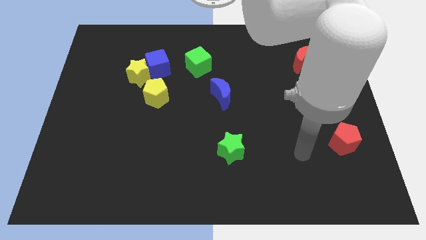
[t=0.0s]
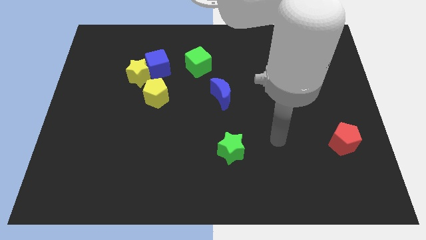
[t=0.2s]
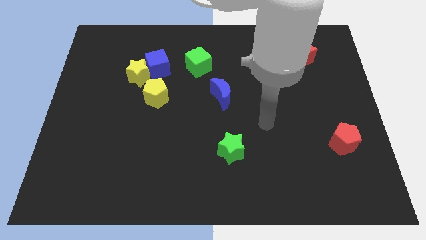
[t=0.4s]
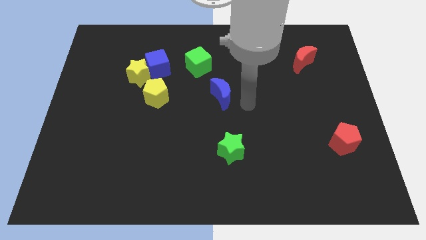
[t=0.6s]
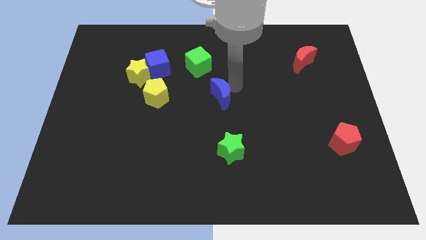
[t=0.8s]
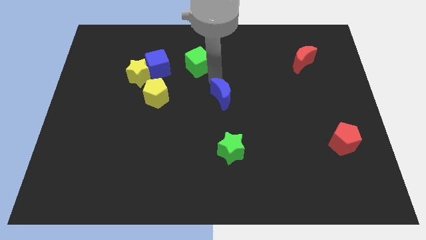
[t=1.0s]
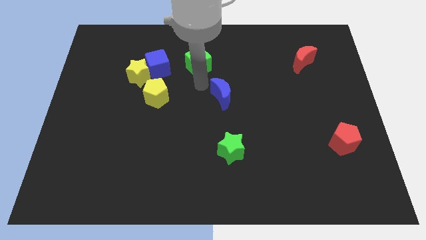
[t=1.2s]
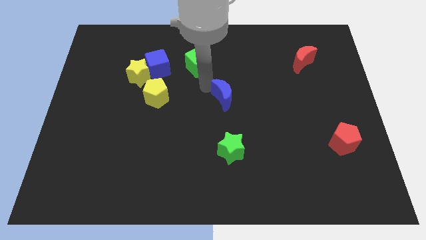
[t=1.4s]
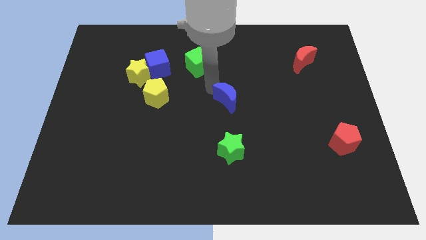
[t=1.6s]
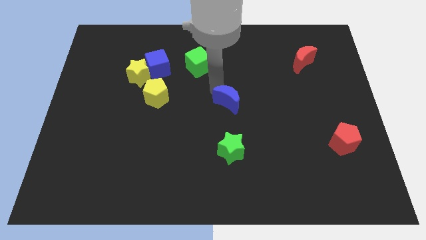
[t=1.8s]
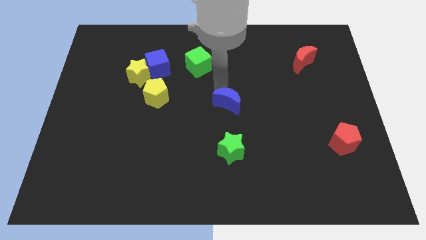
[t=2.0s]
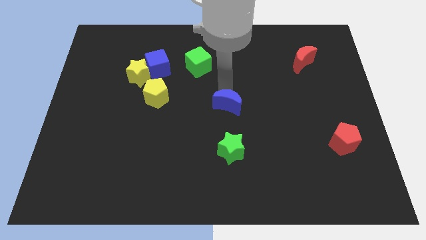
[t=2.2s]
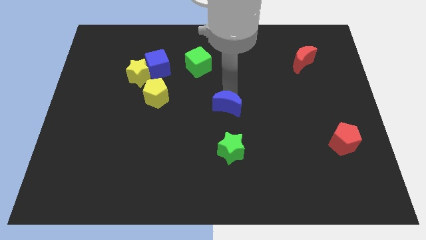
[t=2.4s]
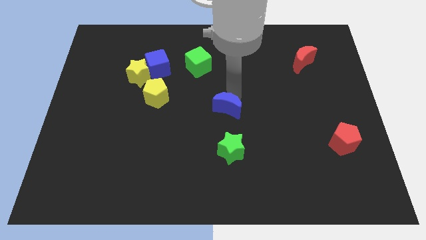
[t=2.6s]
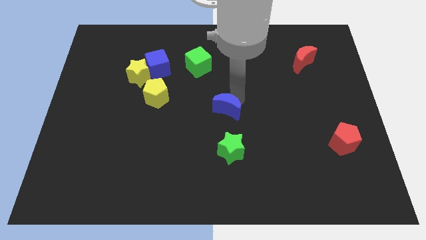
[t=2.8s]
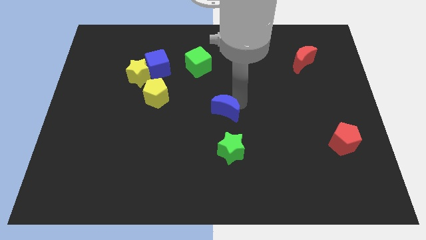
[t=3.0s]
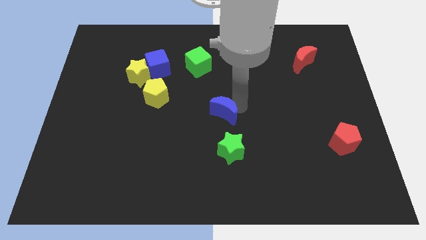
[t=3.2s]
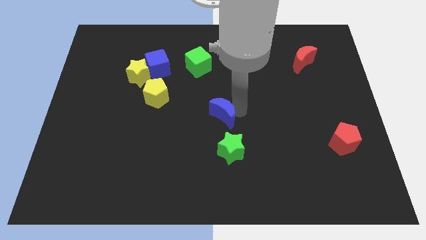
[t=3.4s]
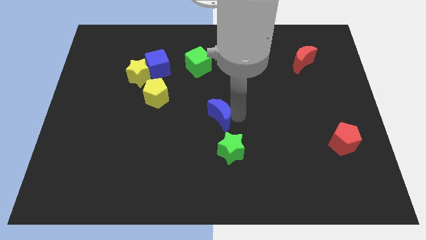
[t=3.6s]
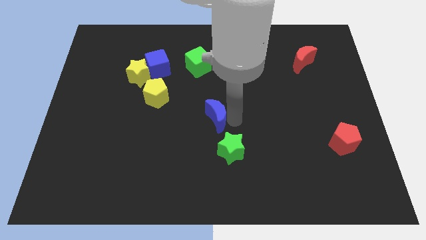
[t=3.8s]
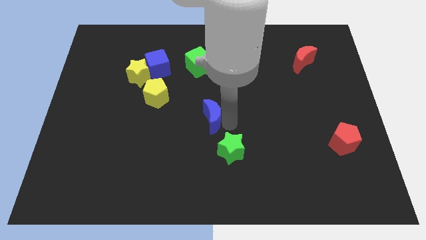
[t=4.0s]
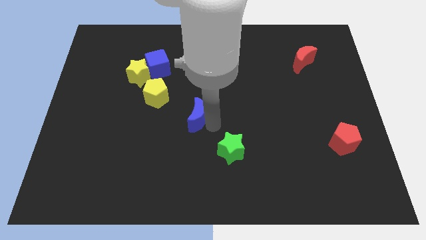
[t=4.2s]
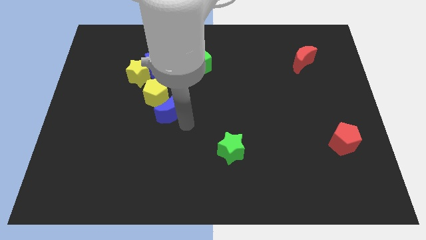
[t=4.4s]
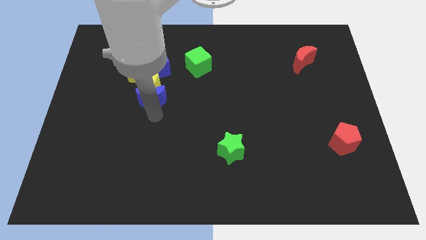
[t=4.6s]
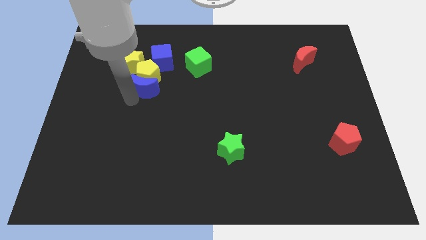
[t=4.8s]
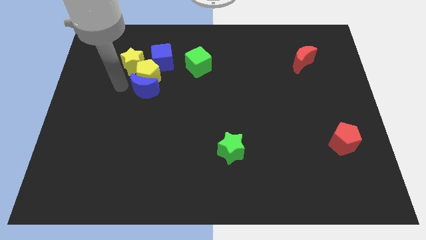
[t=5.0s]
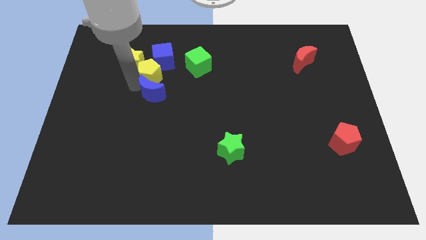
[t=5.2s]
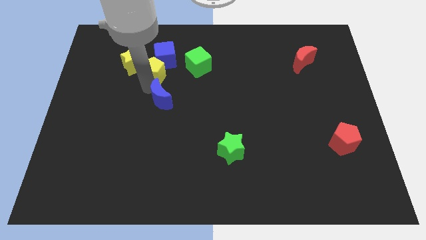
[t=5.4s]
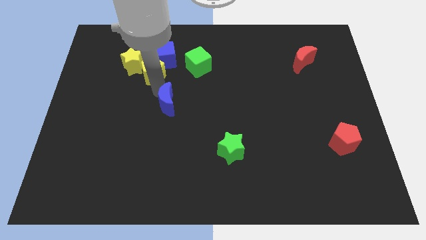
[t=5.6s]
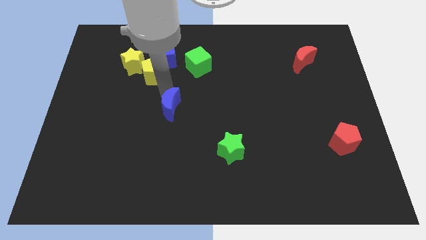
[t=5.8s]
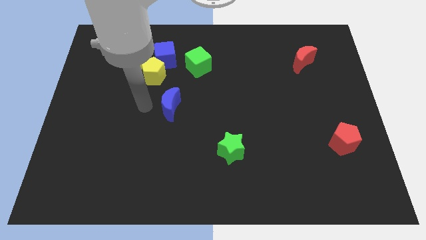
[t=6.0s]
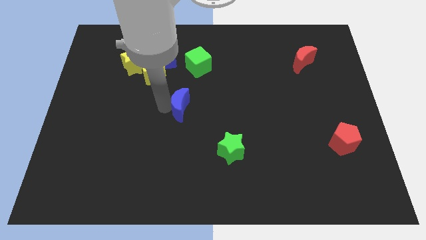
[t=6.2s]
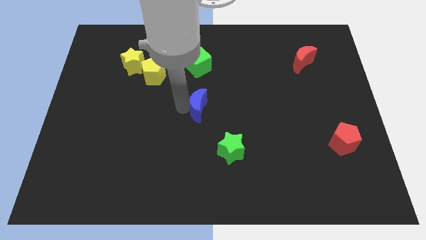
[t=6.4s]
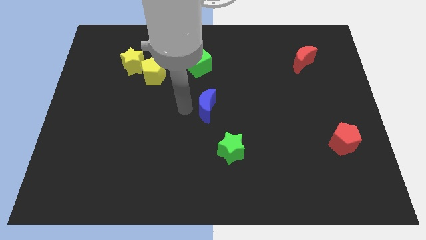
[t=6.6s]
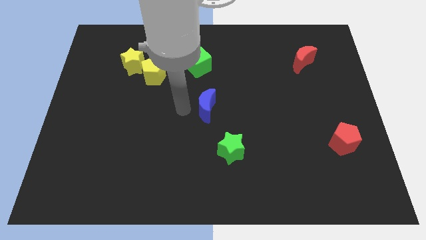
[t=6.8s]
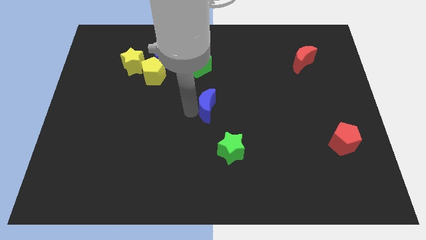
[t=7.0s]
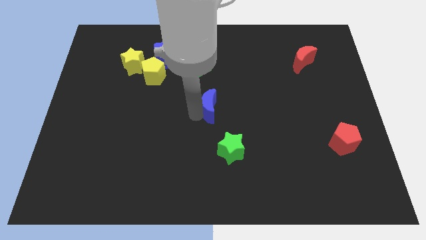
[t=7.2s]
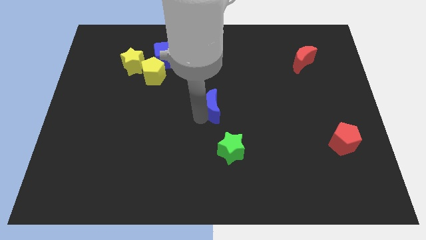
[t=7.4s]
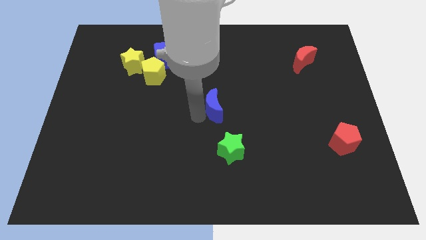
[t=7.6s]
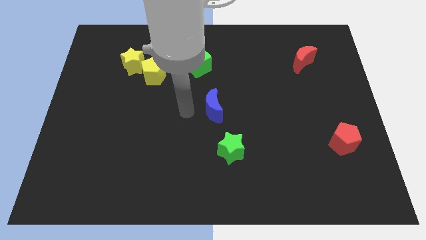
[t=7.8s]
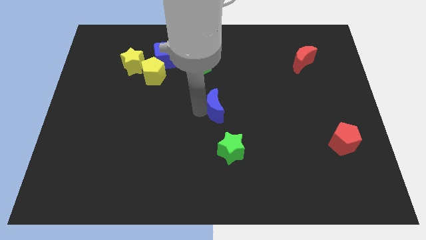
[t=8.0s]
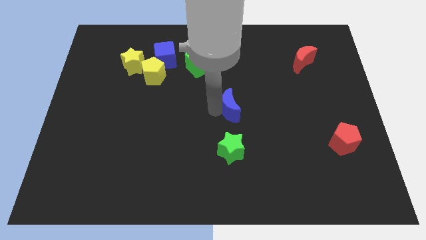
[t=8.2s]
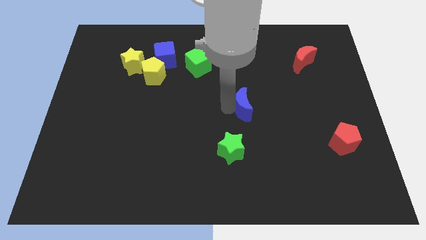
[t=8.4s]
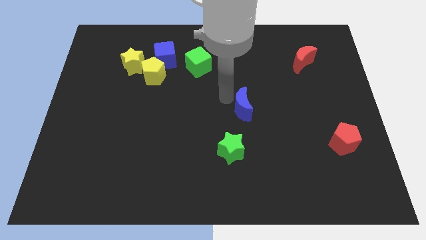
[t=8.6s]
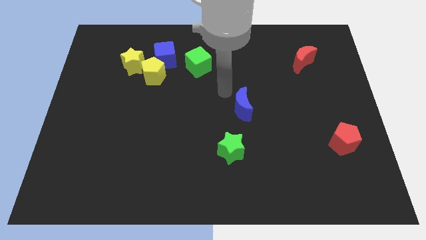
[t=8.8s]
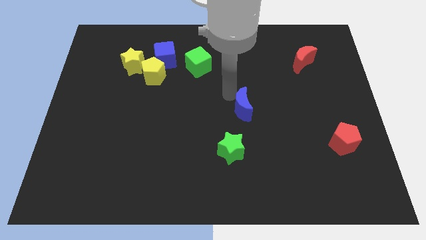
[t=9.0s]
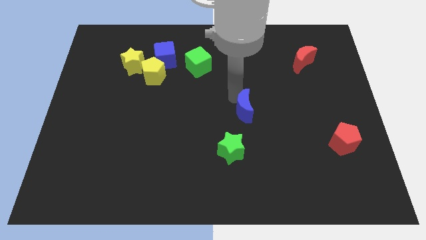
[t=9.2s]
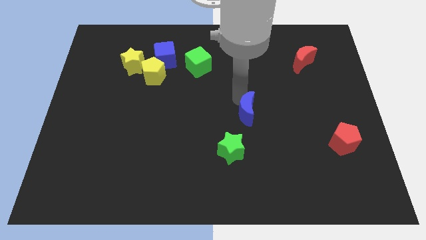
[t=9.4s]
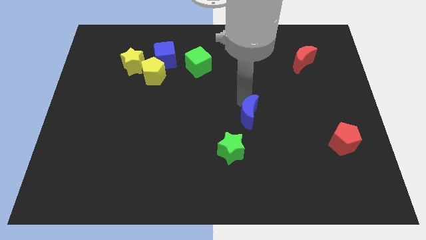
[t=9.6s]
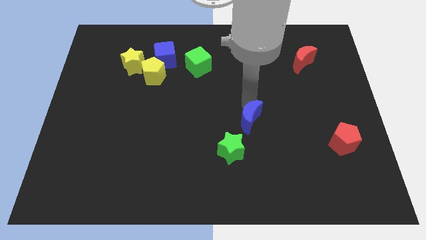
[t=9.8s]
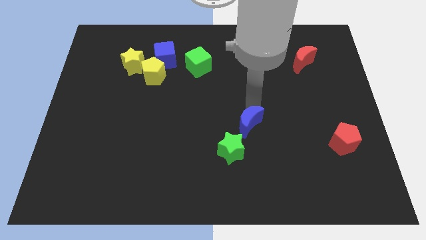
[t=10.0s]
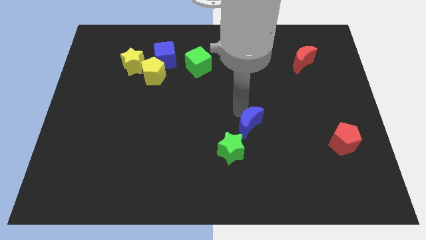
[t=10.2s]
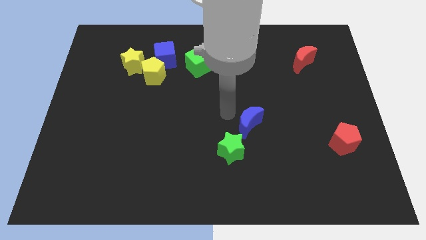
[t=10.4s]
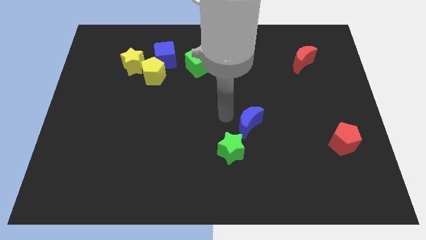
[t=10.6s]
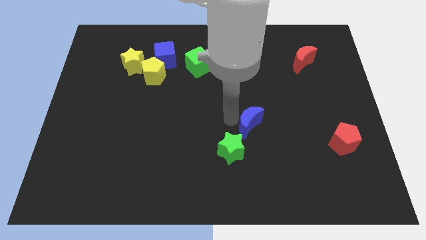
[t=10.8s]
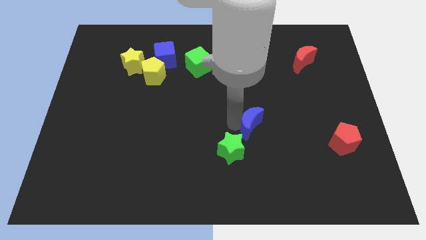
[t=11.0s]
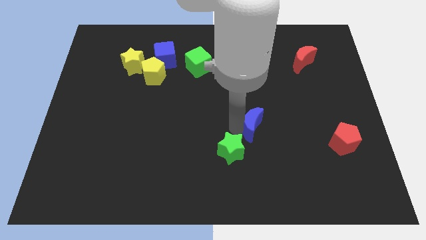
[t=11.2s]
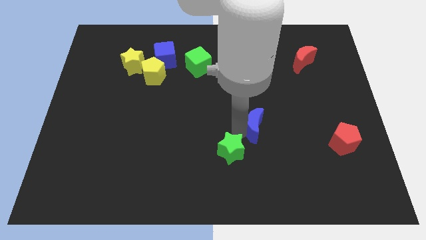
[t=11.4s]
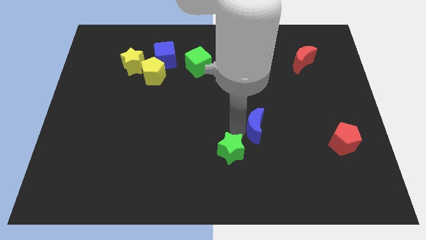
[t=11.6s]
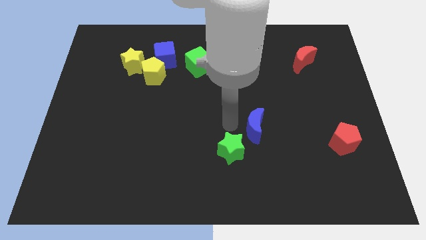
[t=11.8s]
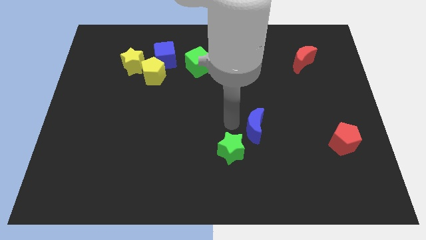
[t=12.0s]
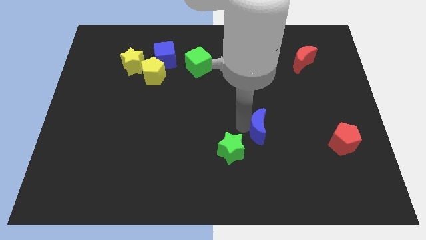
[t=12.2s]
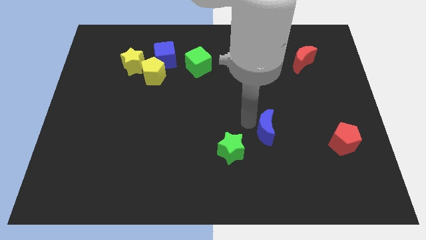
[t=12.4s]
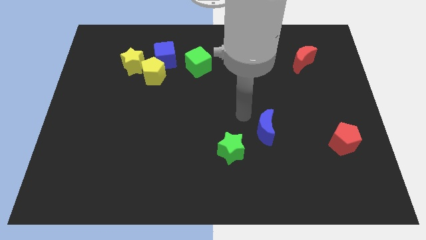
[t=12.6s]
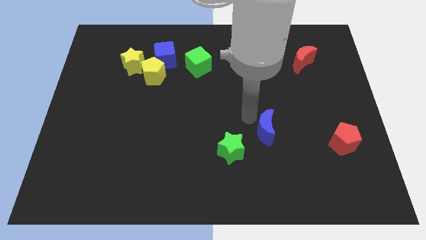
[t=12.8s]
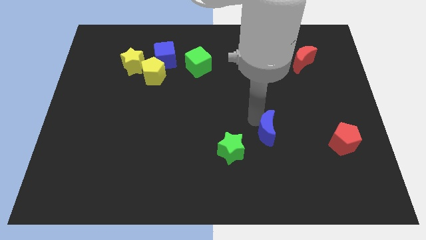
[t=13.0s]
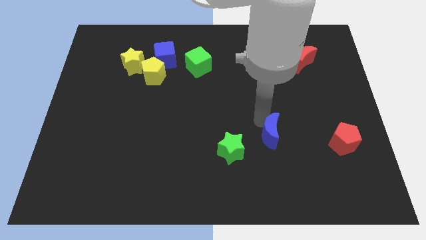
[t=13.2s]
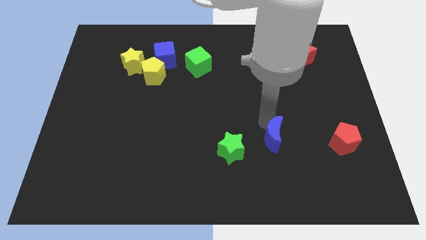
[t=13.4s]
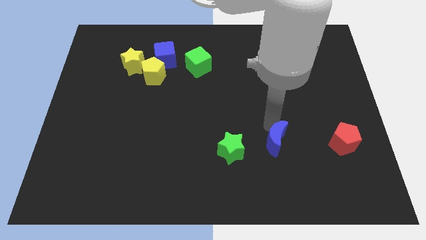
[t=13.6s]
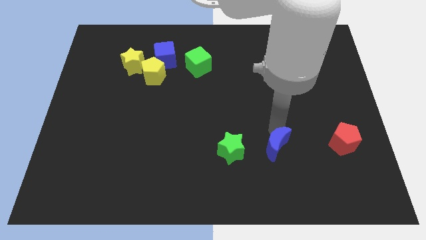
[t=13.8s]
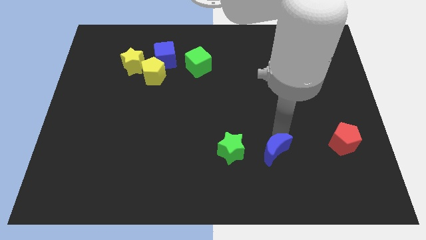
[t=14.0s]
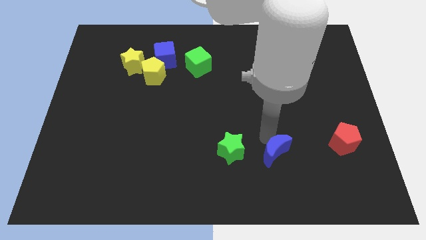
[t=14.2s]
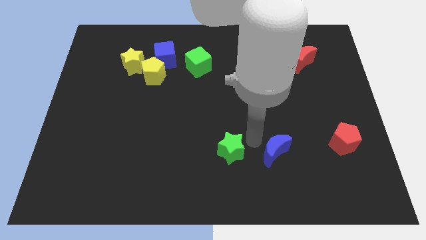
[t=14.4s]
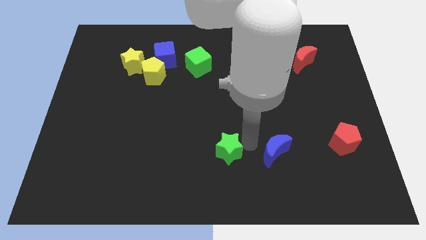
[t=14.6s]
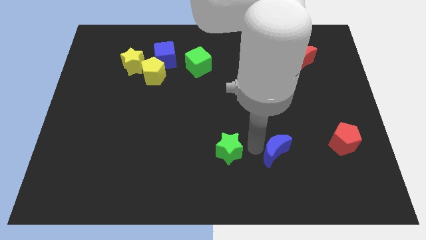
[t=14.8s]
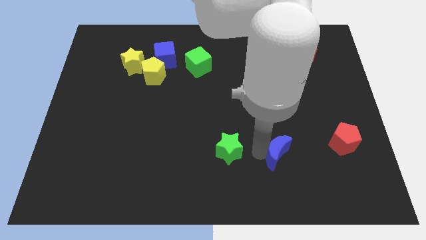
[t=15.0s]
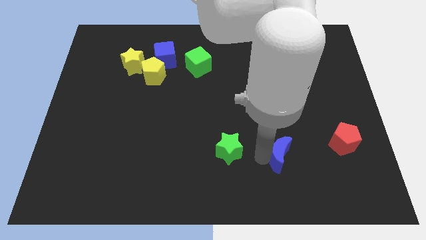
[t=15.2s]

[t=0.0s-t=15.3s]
slide the blue moon downwards and to the right
